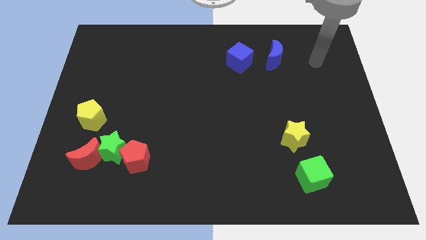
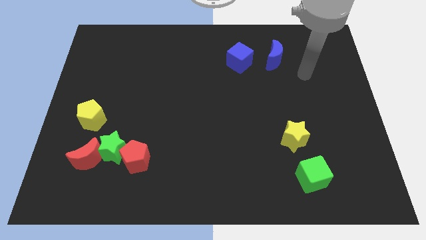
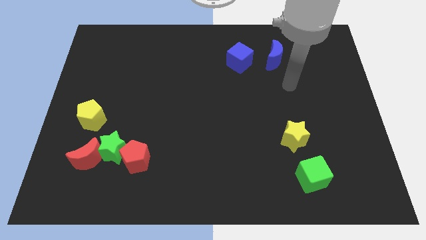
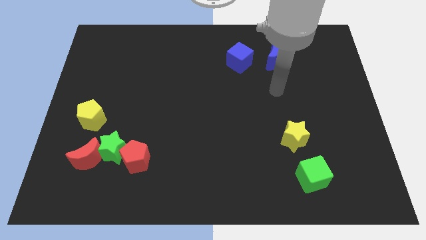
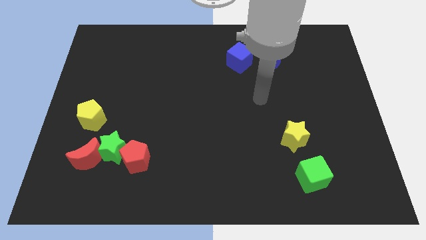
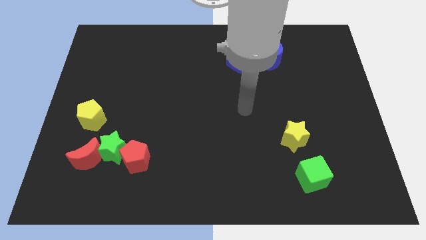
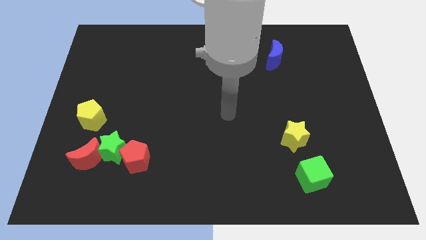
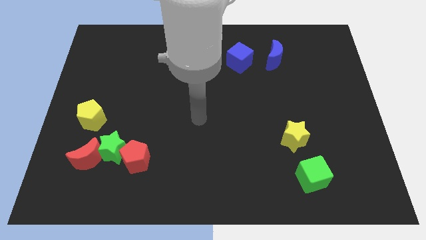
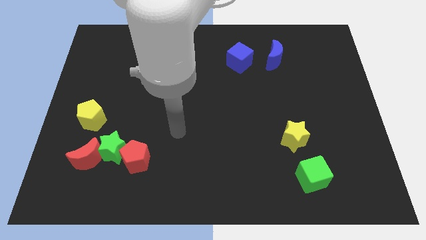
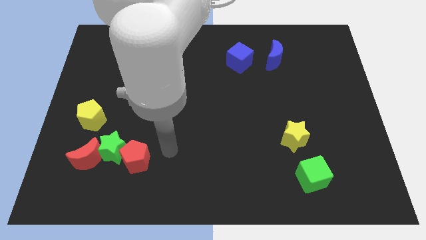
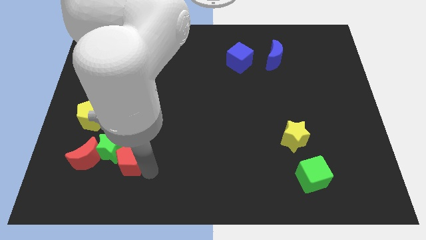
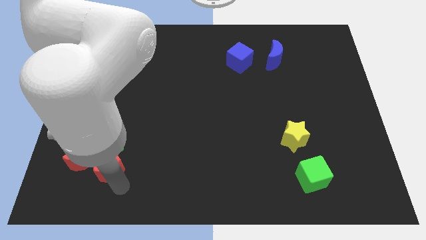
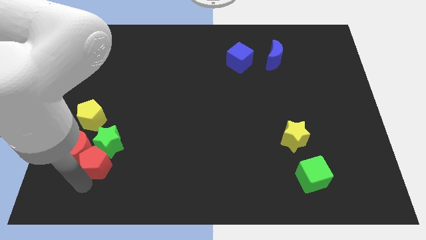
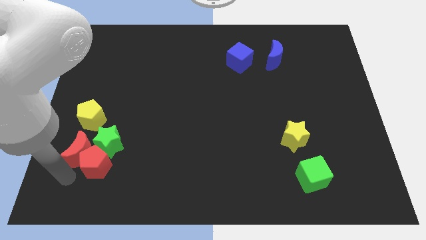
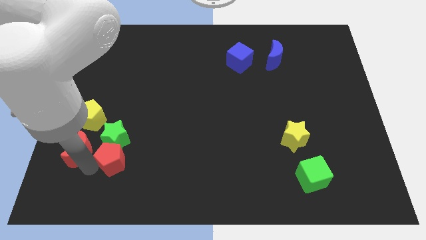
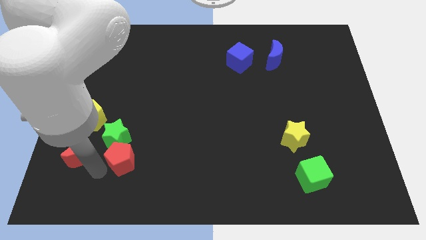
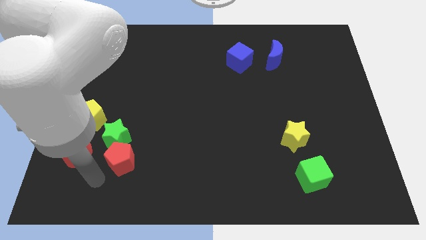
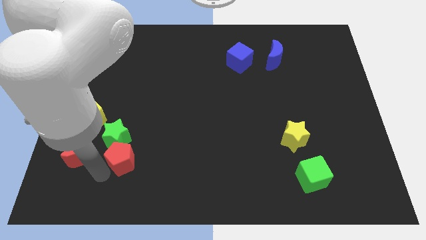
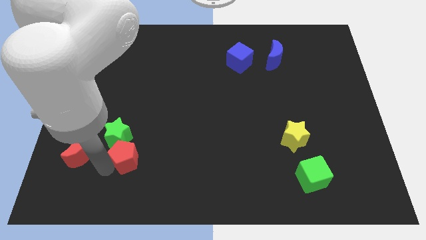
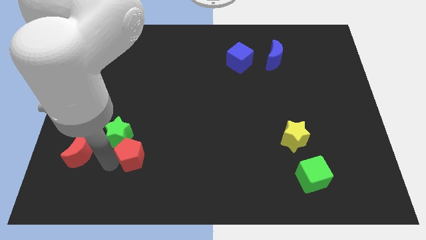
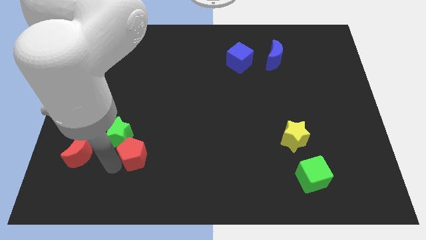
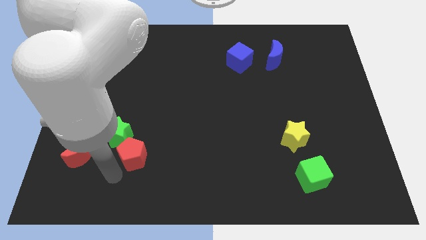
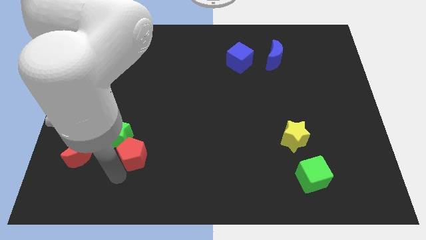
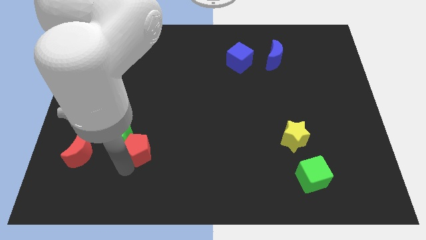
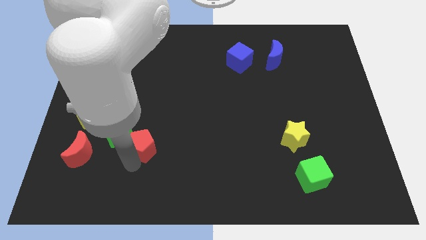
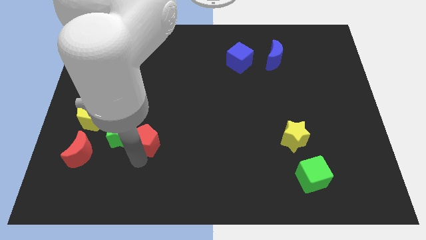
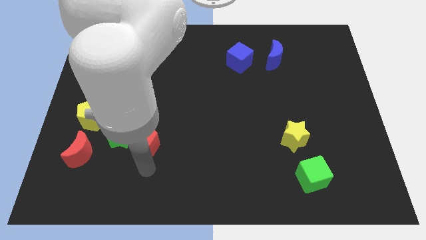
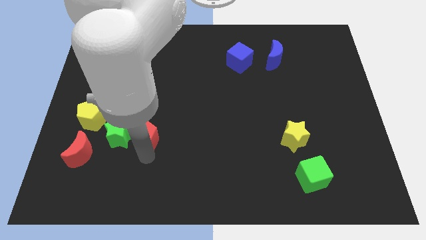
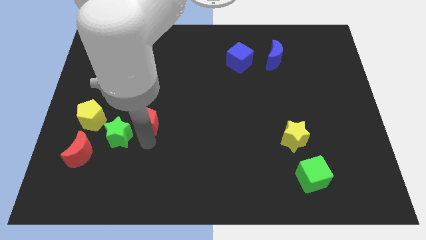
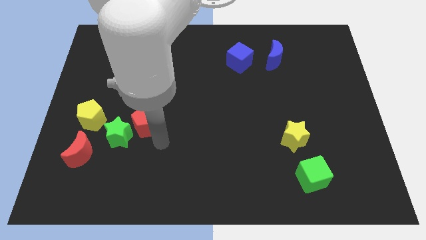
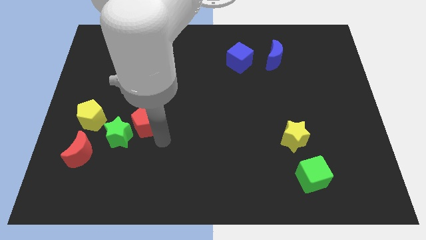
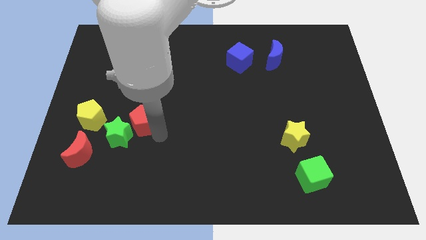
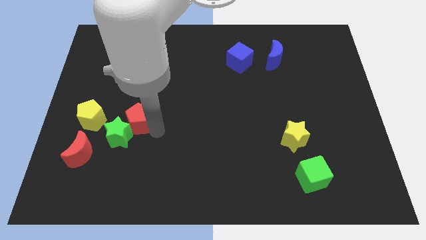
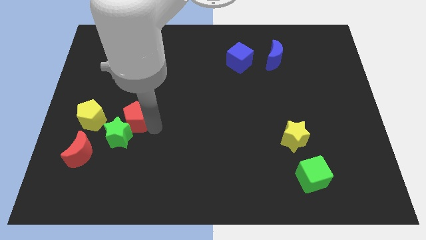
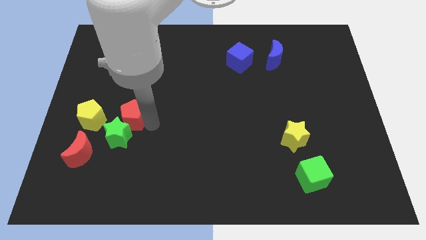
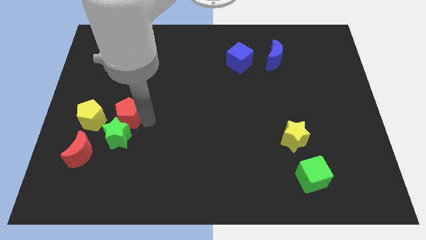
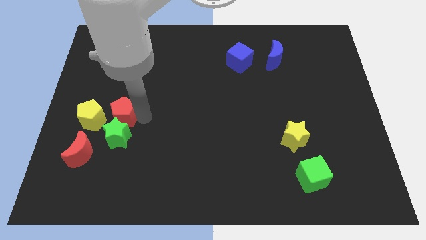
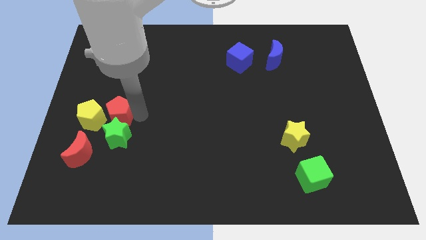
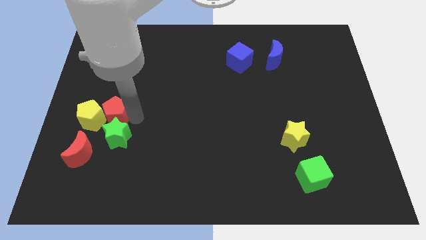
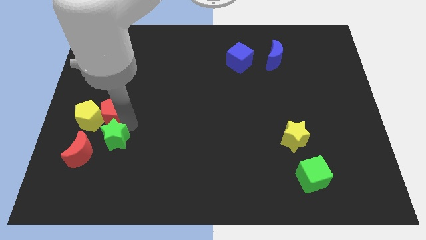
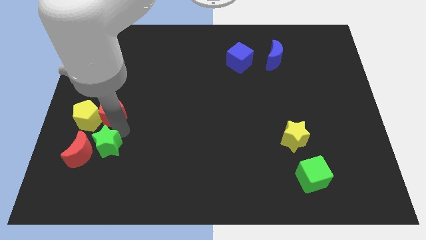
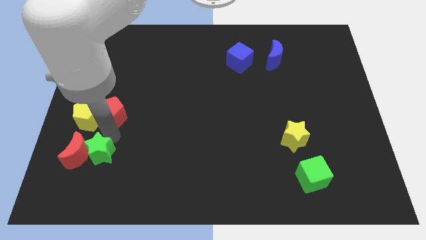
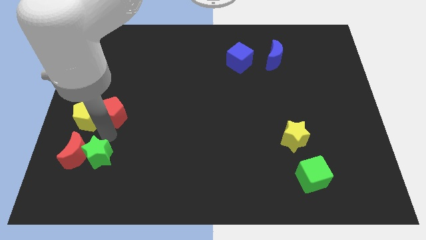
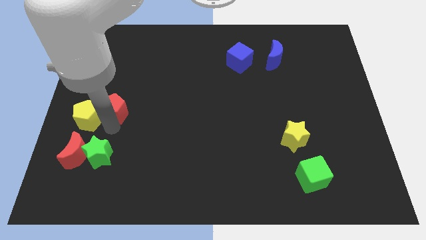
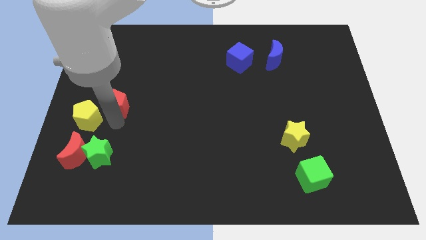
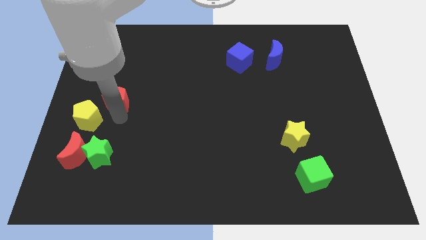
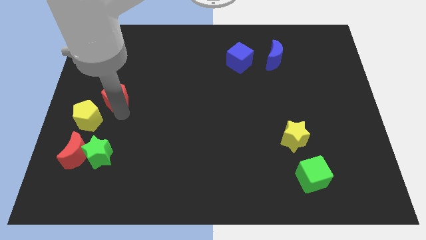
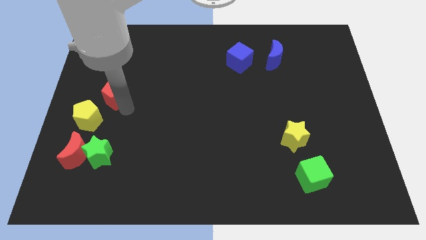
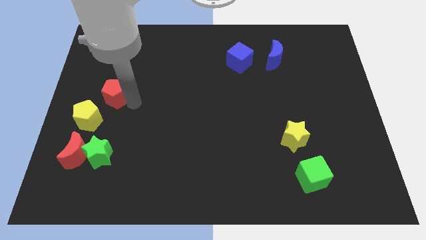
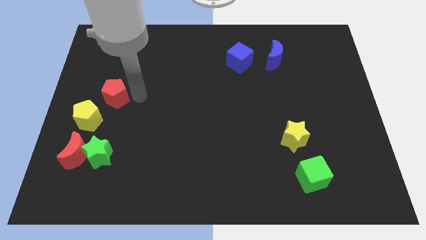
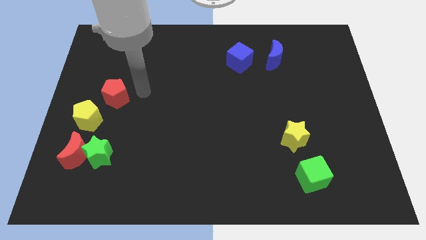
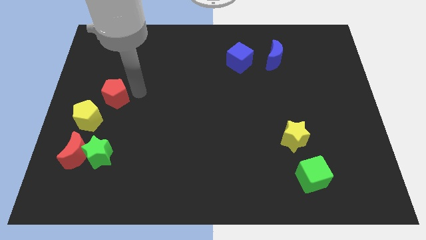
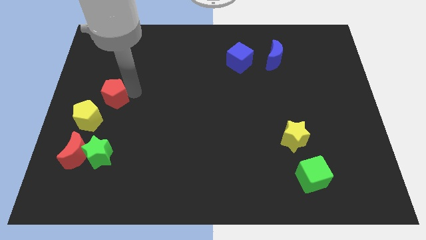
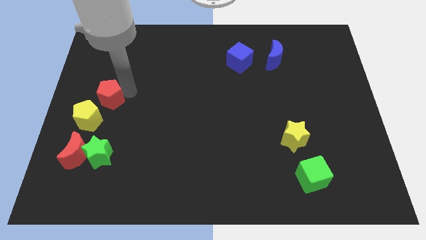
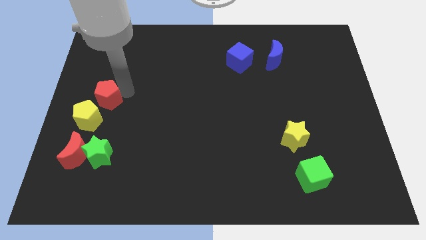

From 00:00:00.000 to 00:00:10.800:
push the red pentagon to the left side

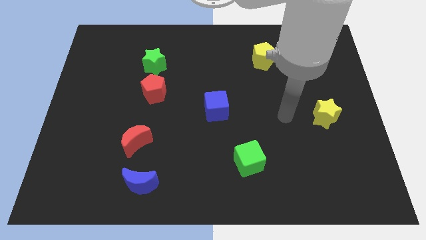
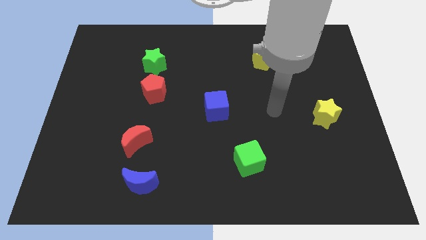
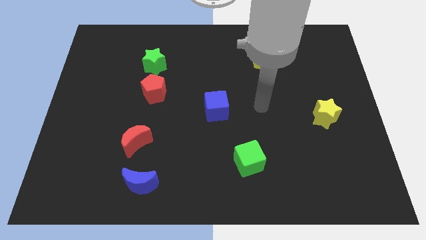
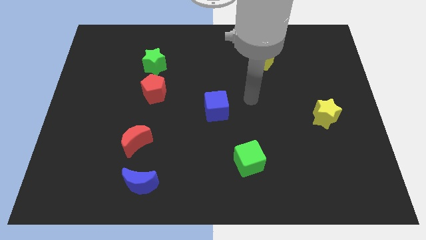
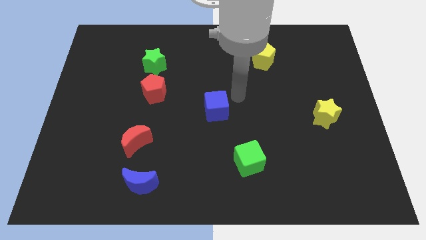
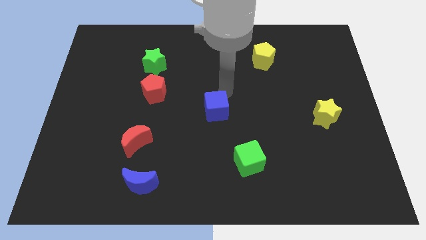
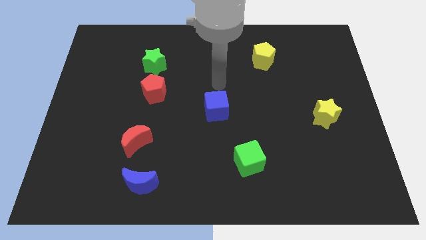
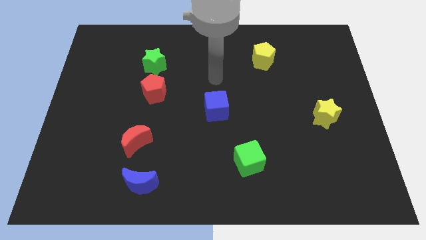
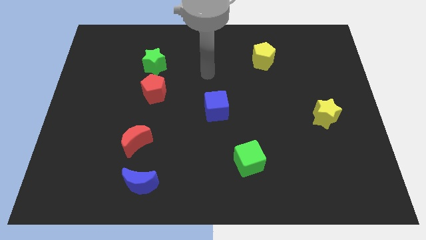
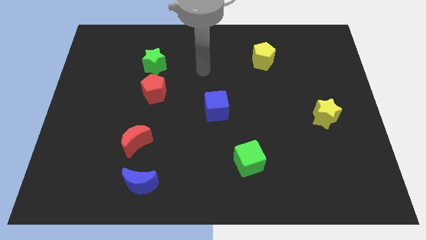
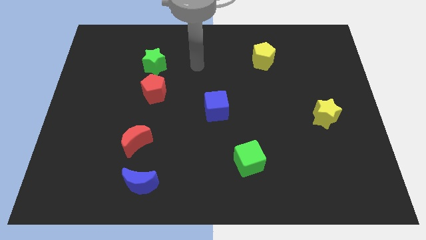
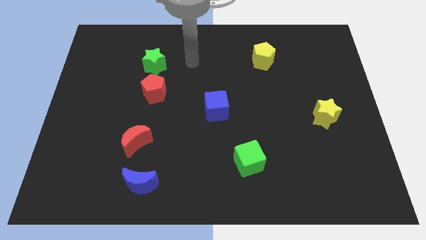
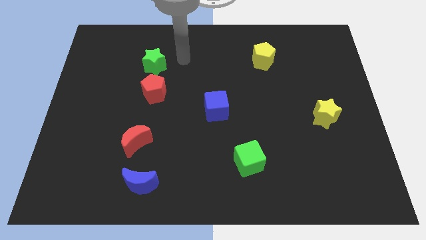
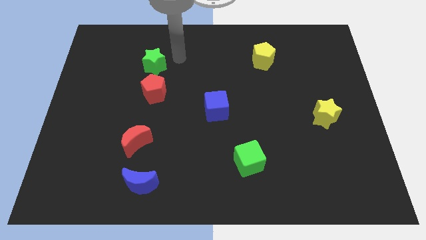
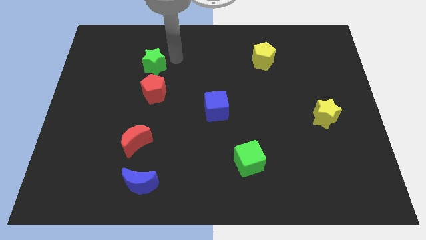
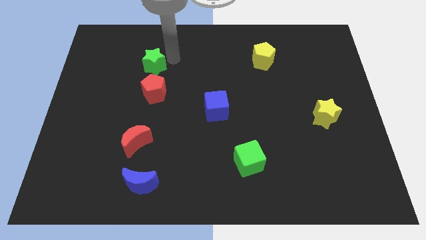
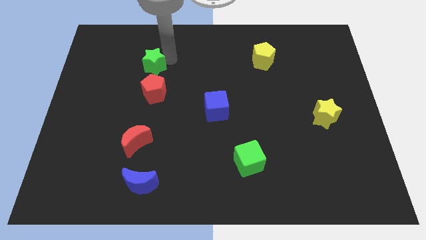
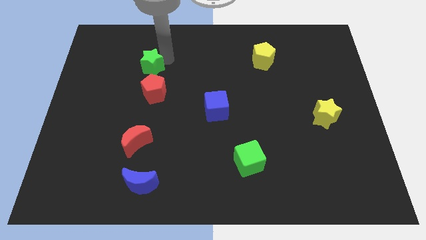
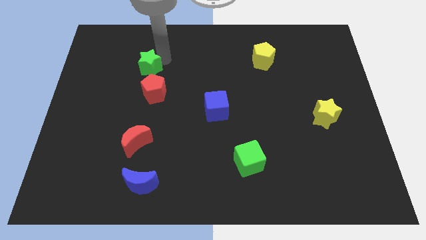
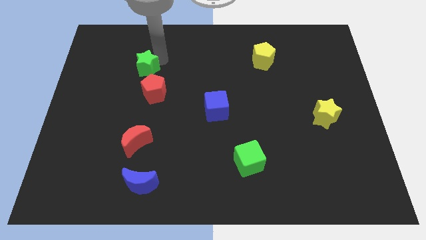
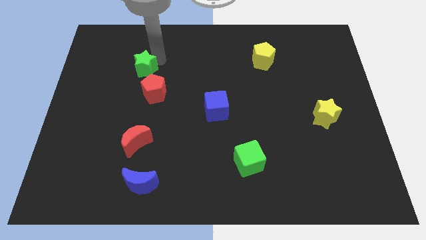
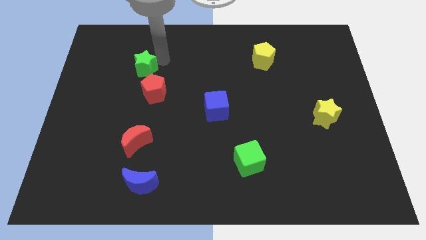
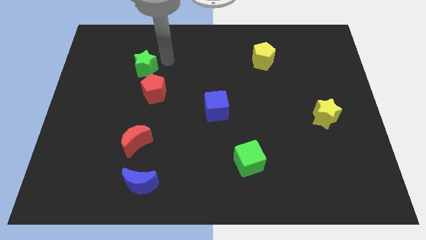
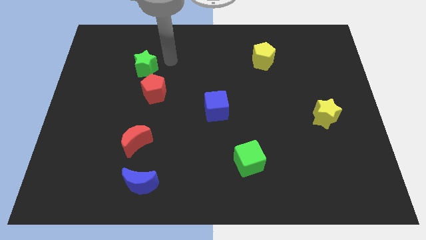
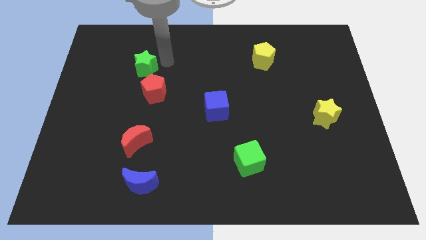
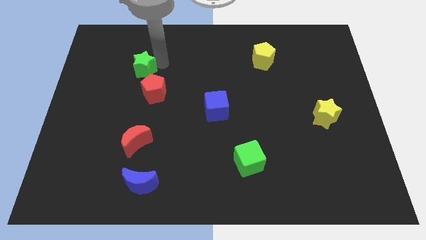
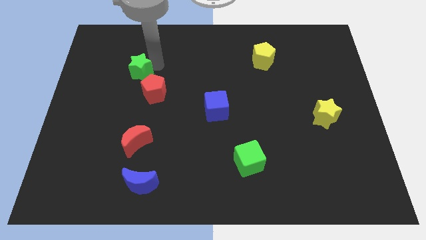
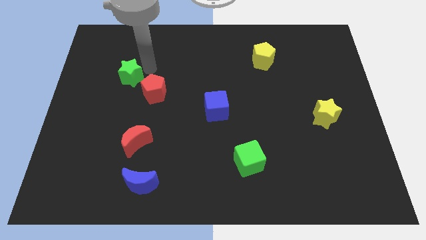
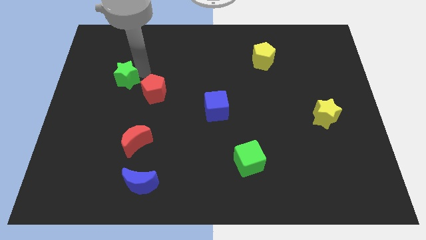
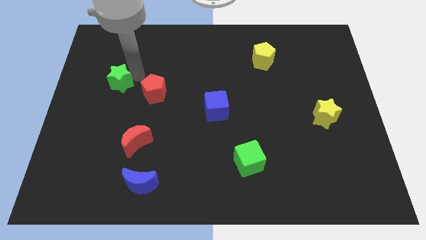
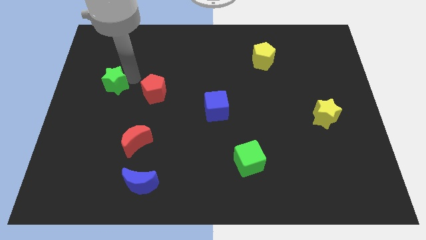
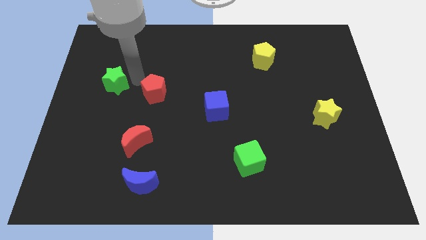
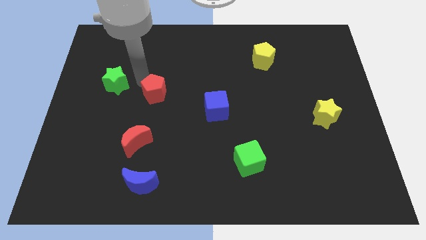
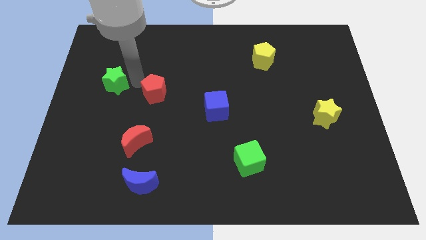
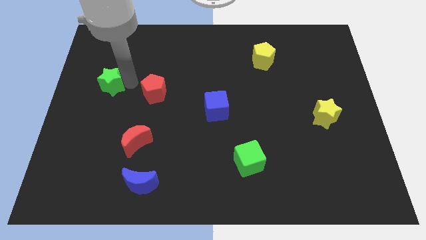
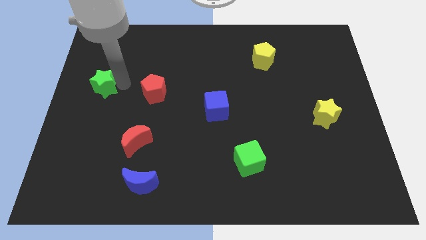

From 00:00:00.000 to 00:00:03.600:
move the green star to the center left
